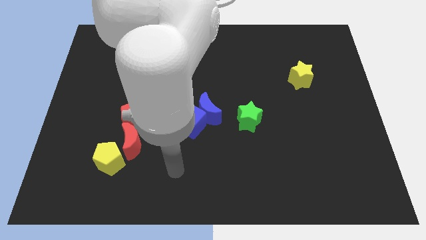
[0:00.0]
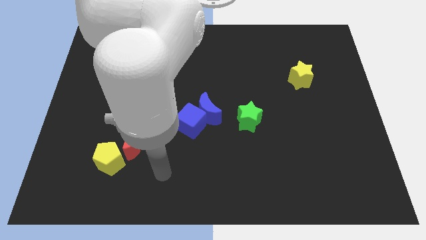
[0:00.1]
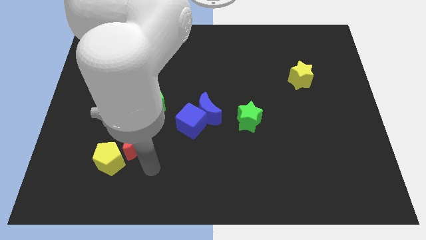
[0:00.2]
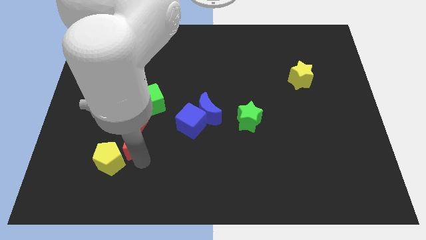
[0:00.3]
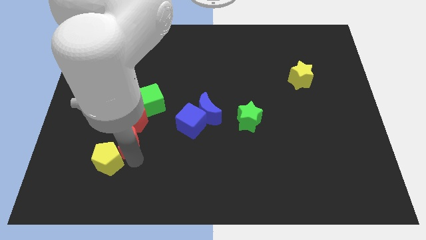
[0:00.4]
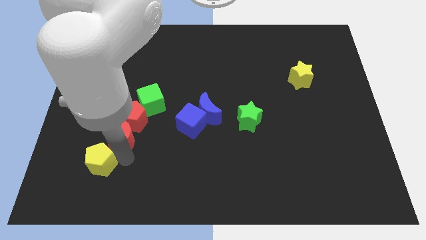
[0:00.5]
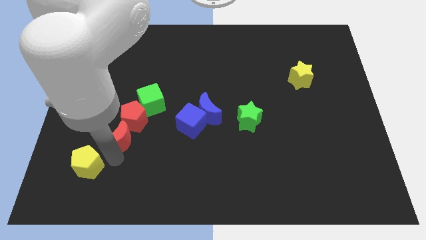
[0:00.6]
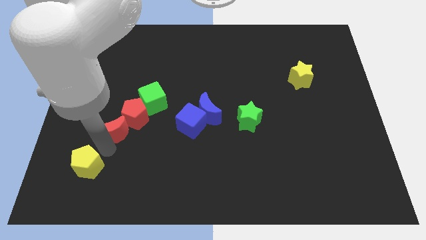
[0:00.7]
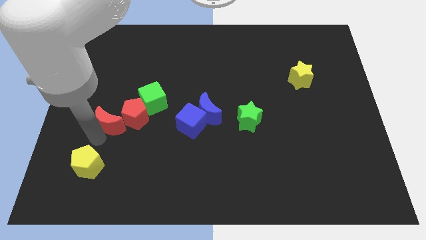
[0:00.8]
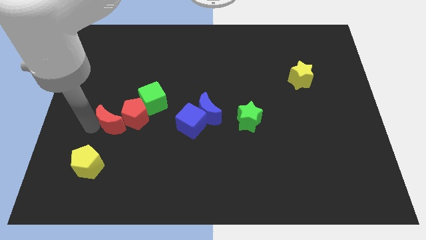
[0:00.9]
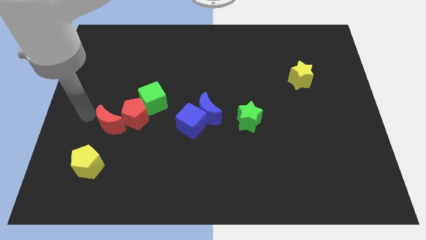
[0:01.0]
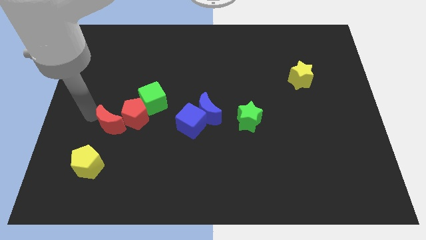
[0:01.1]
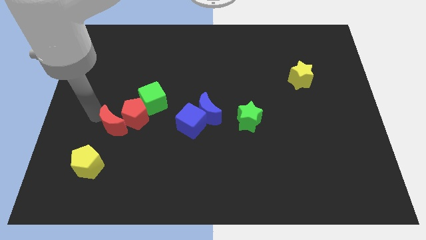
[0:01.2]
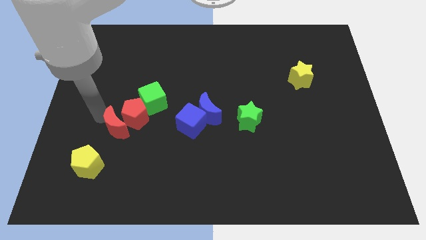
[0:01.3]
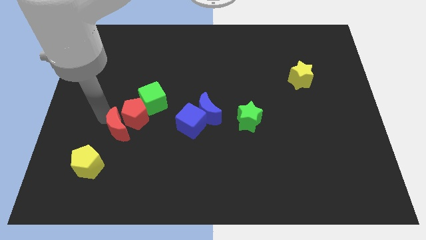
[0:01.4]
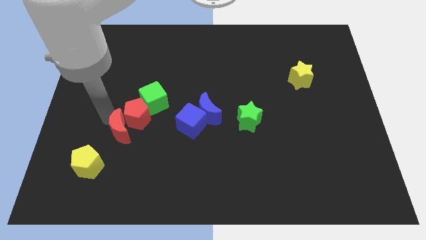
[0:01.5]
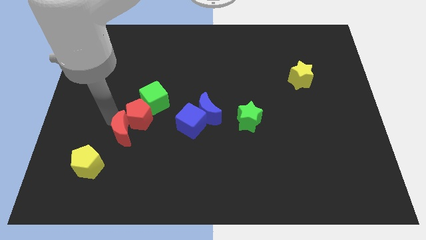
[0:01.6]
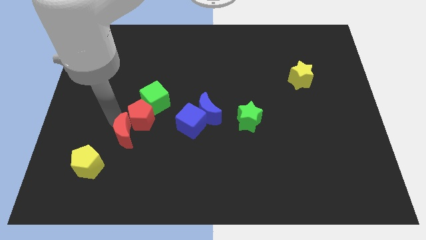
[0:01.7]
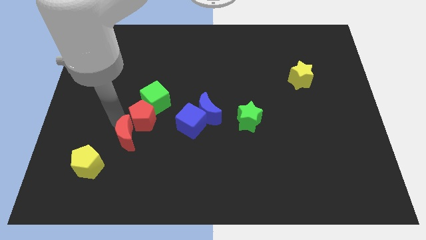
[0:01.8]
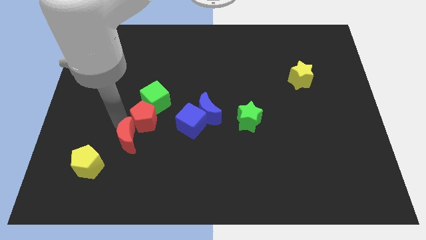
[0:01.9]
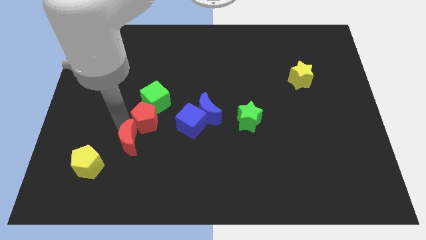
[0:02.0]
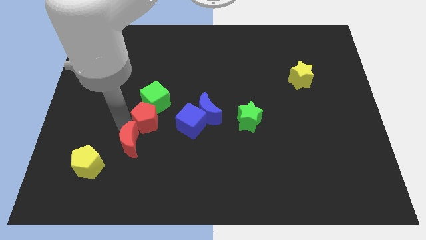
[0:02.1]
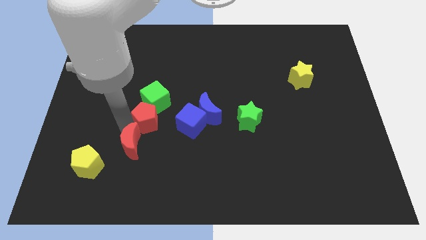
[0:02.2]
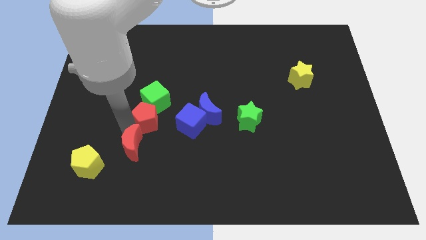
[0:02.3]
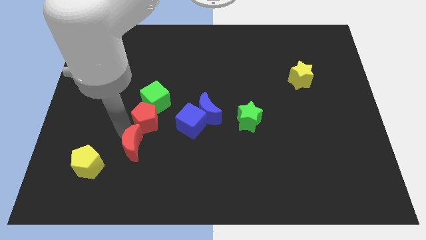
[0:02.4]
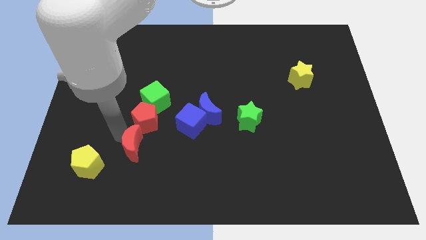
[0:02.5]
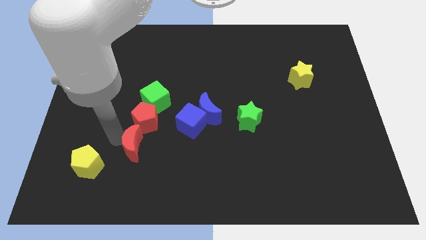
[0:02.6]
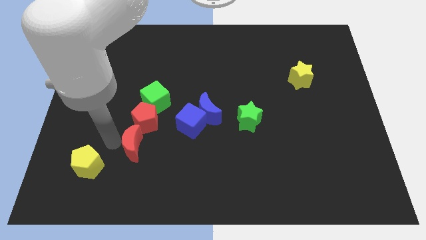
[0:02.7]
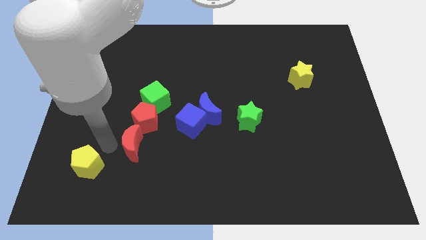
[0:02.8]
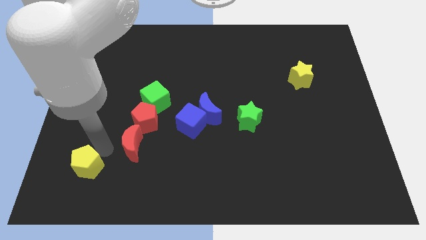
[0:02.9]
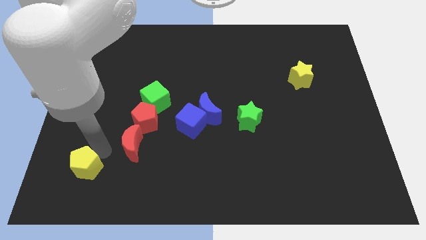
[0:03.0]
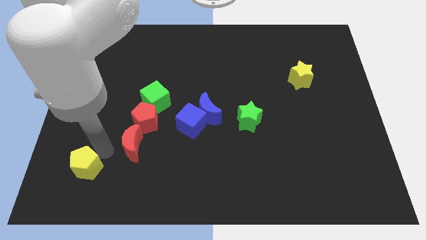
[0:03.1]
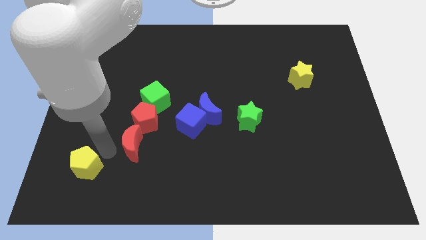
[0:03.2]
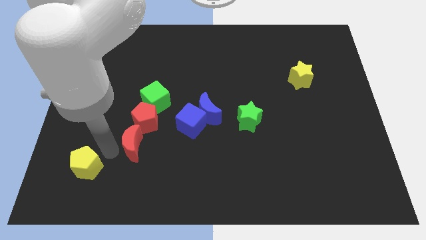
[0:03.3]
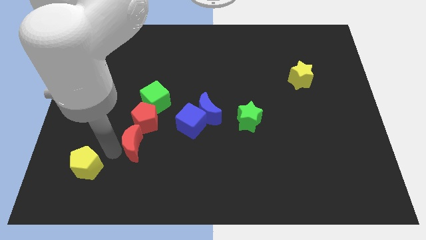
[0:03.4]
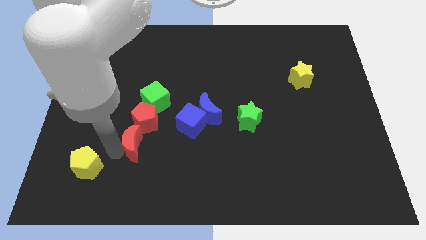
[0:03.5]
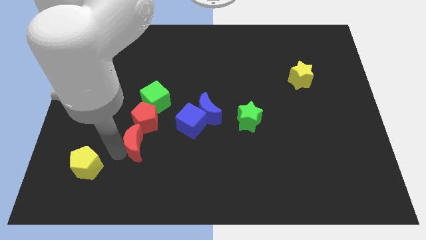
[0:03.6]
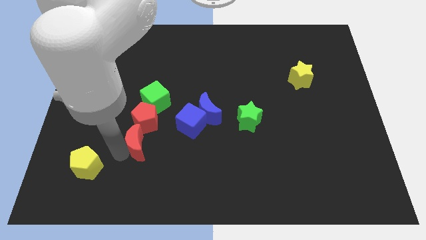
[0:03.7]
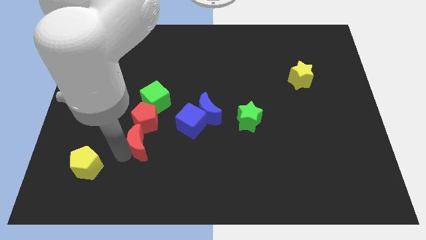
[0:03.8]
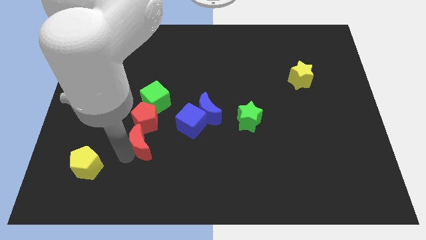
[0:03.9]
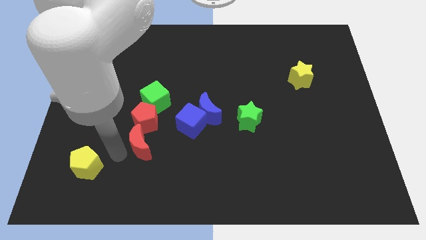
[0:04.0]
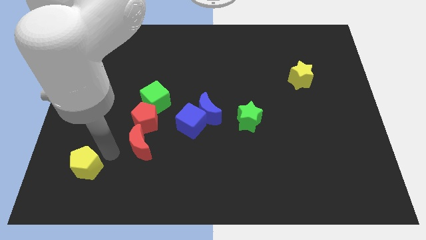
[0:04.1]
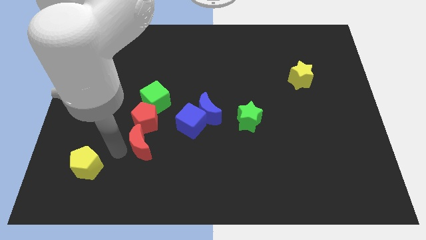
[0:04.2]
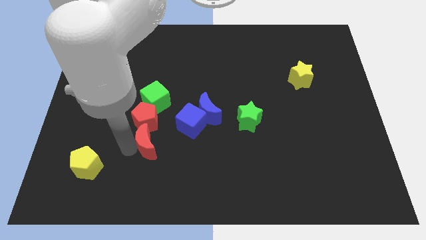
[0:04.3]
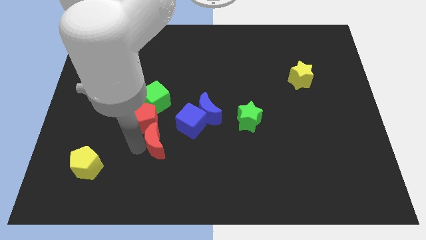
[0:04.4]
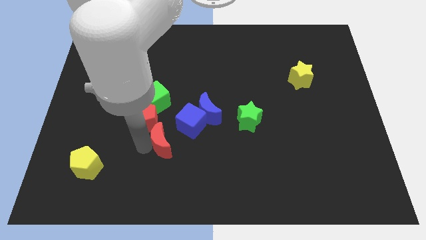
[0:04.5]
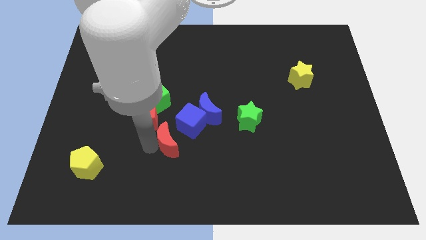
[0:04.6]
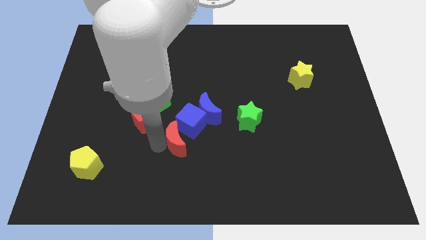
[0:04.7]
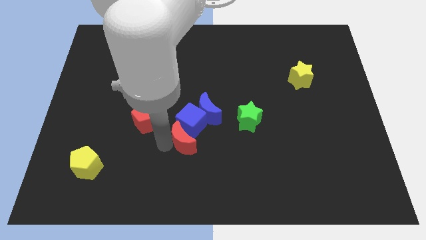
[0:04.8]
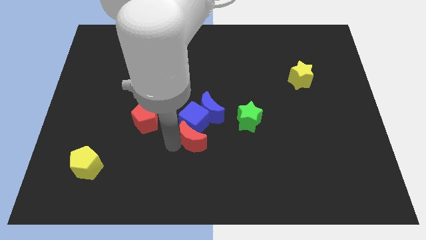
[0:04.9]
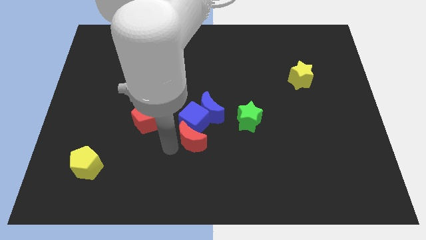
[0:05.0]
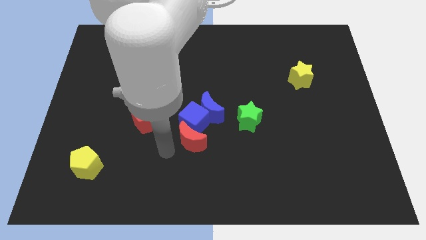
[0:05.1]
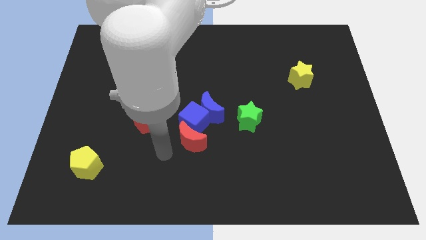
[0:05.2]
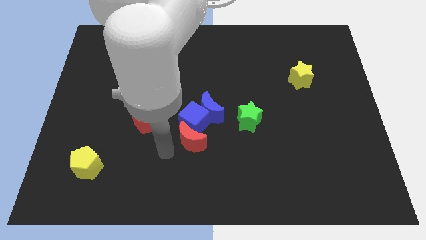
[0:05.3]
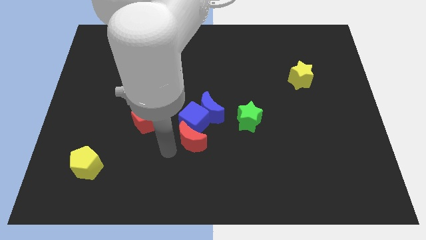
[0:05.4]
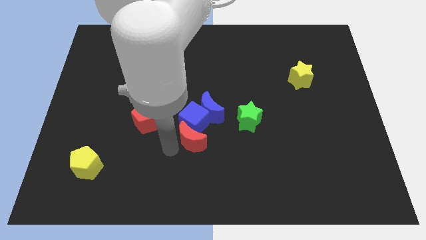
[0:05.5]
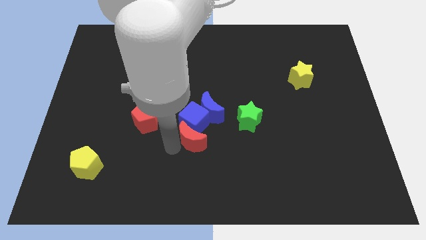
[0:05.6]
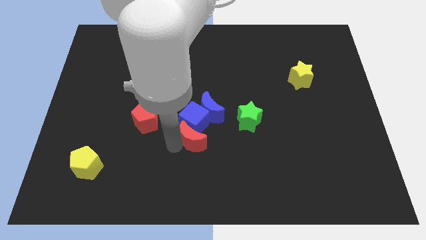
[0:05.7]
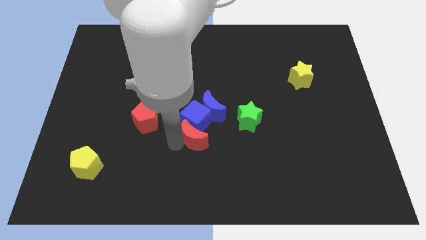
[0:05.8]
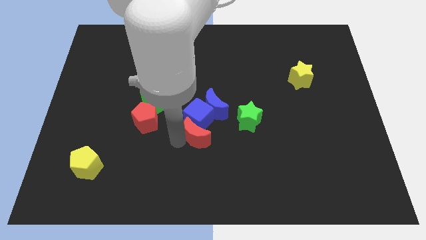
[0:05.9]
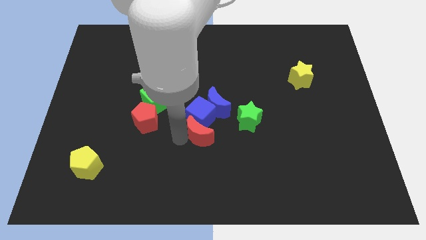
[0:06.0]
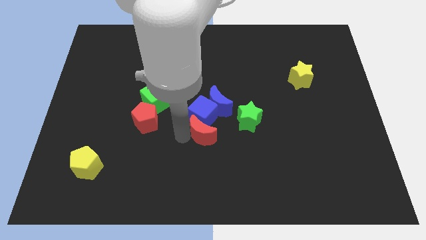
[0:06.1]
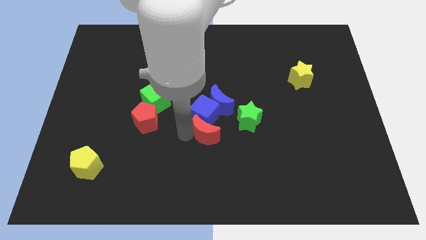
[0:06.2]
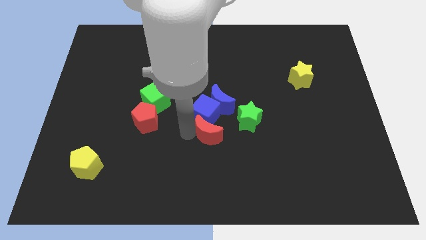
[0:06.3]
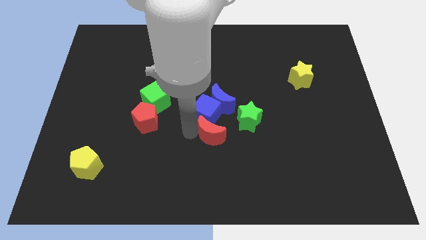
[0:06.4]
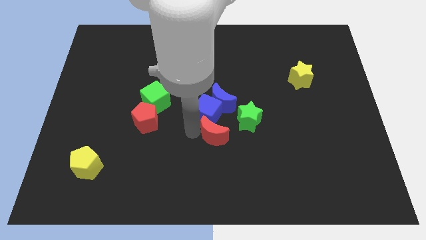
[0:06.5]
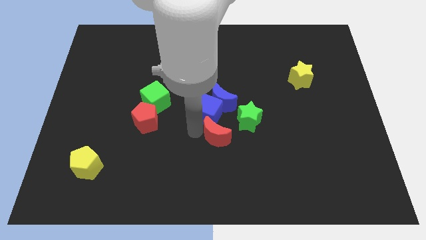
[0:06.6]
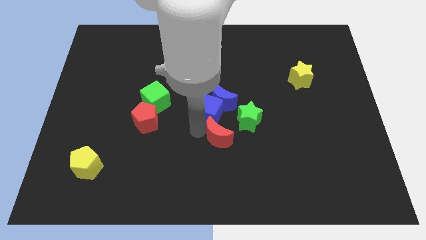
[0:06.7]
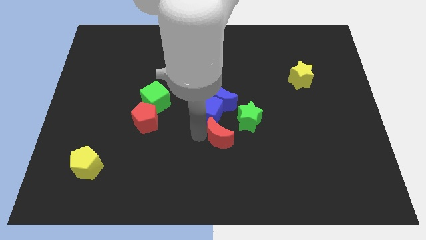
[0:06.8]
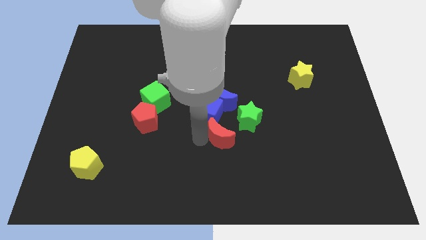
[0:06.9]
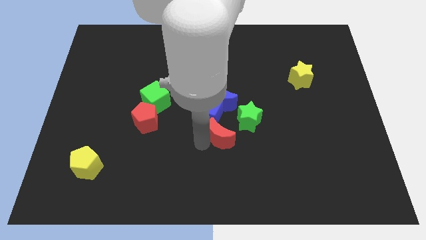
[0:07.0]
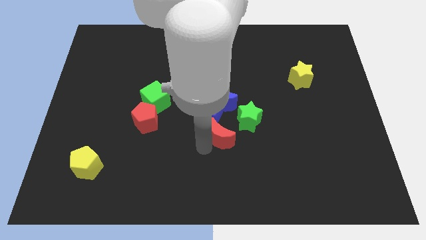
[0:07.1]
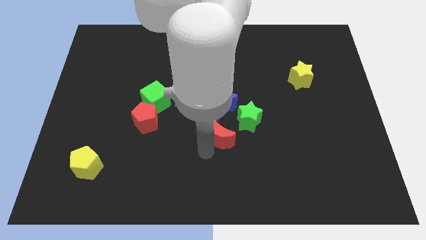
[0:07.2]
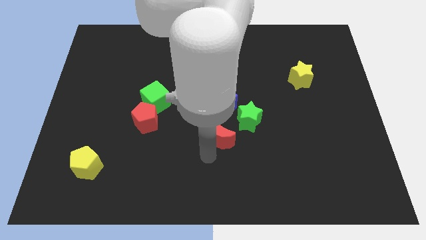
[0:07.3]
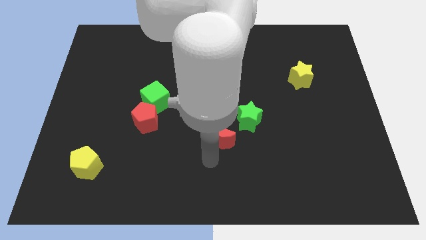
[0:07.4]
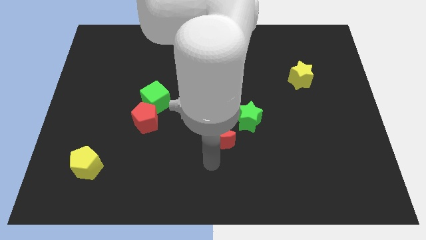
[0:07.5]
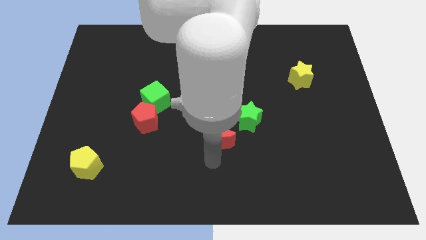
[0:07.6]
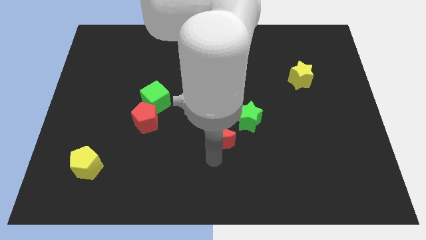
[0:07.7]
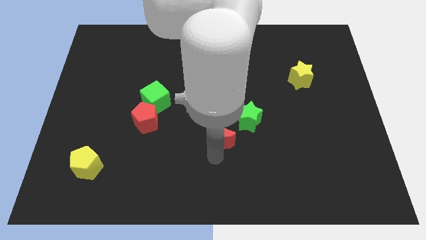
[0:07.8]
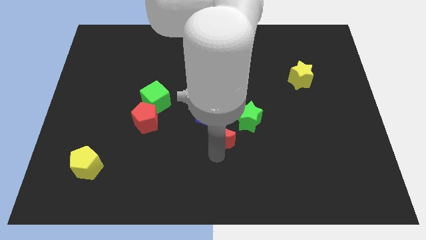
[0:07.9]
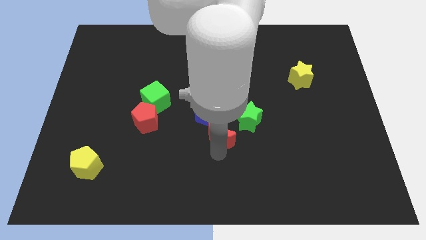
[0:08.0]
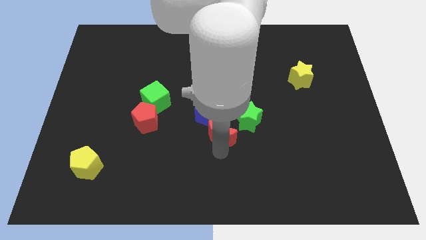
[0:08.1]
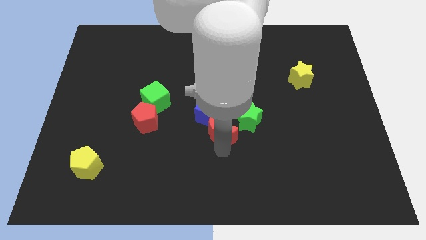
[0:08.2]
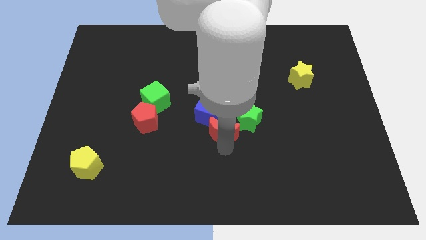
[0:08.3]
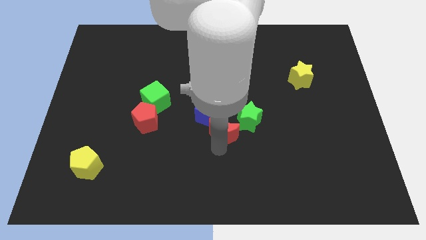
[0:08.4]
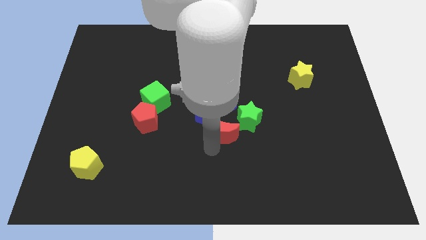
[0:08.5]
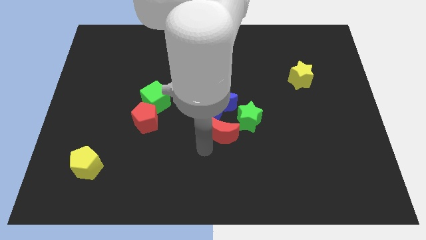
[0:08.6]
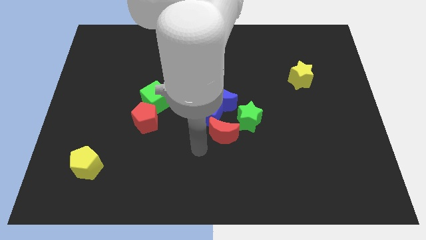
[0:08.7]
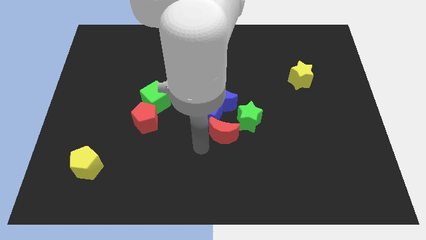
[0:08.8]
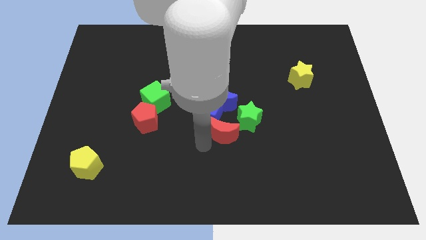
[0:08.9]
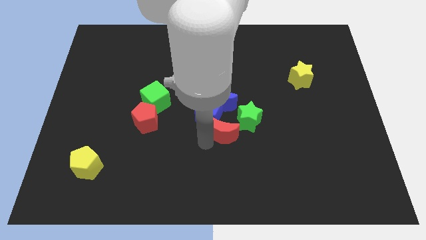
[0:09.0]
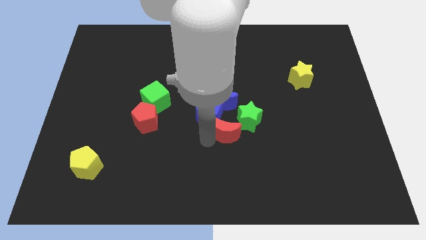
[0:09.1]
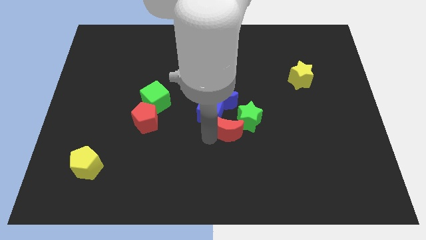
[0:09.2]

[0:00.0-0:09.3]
push the red moon close to the green star
